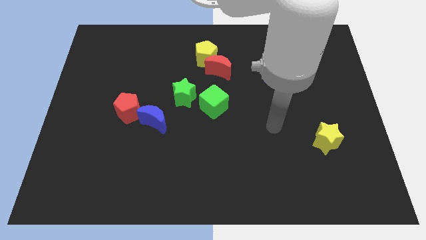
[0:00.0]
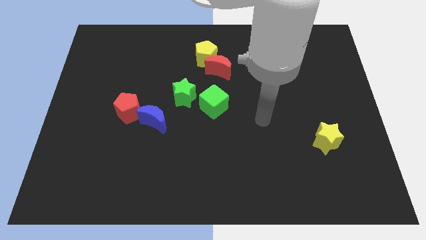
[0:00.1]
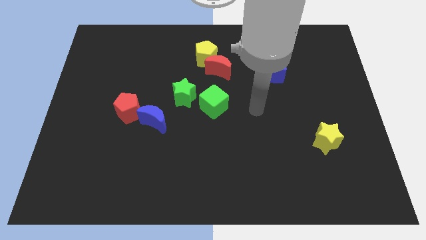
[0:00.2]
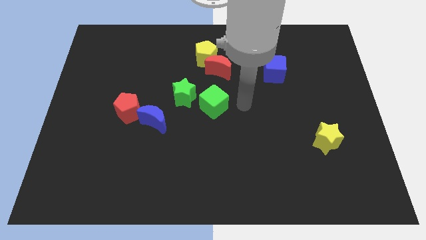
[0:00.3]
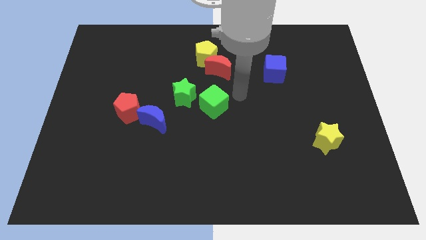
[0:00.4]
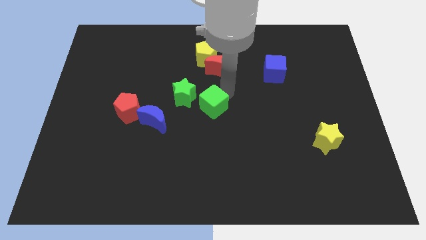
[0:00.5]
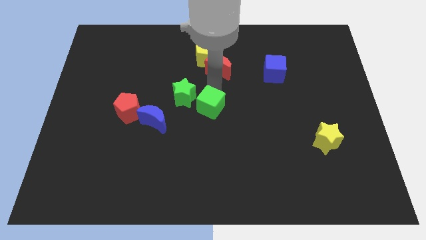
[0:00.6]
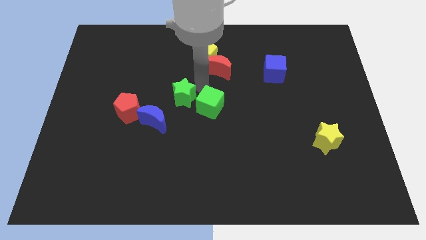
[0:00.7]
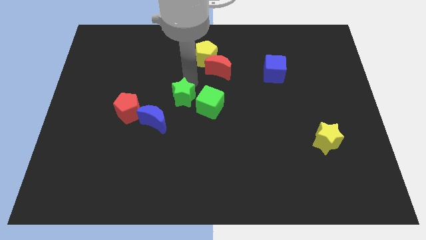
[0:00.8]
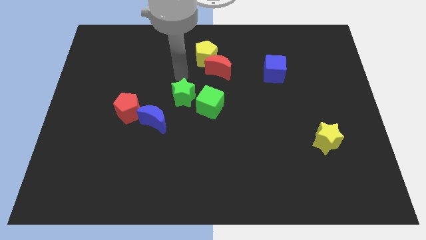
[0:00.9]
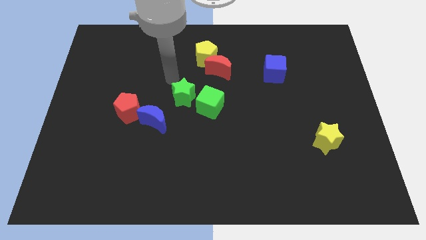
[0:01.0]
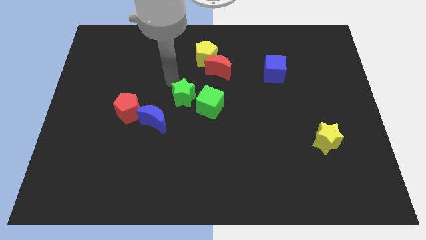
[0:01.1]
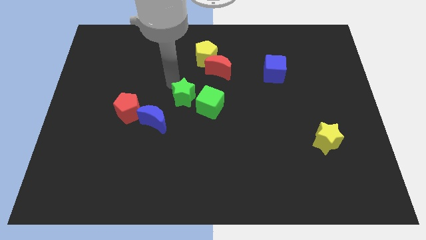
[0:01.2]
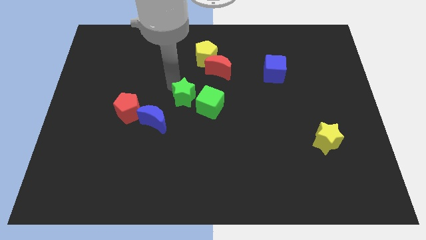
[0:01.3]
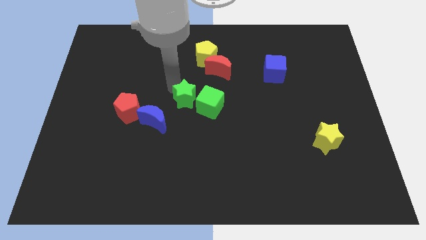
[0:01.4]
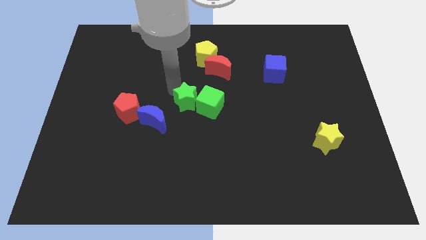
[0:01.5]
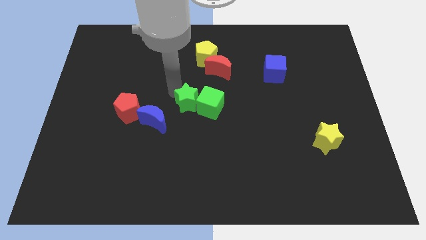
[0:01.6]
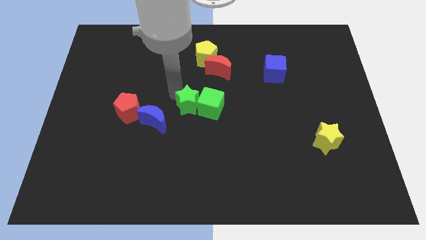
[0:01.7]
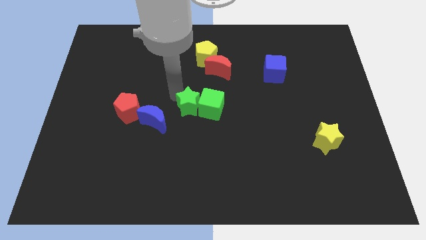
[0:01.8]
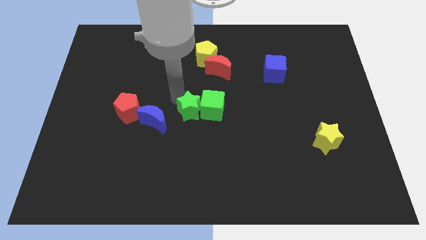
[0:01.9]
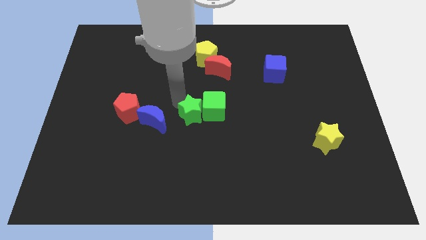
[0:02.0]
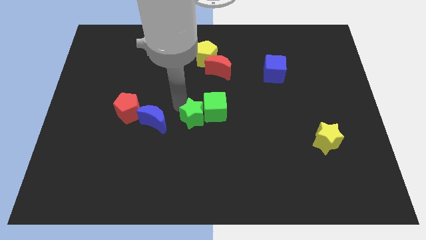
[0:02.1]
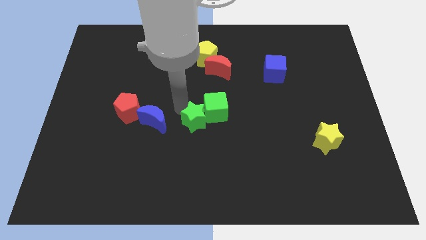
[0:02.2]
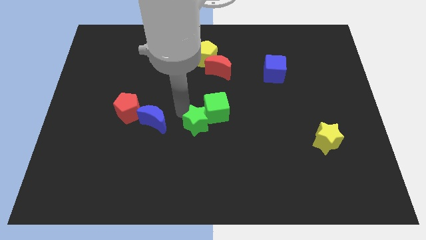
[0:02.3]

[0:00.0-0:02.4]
move the green star slightly down and then right

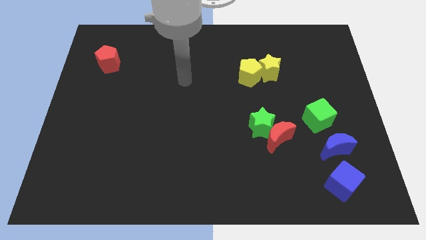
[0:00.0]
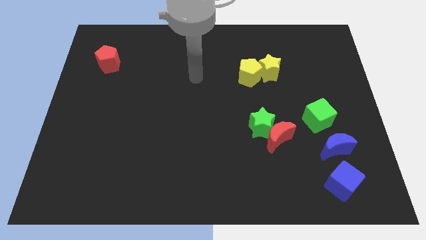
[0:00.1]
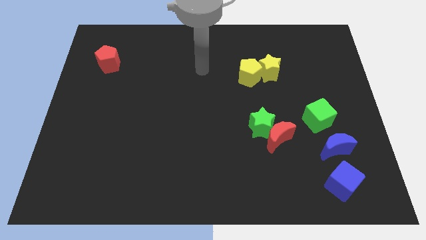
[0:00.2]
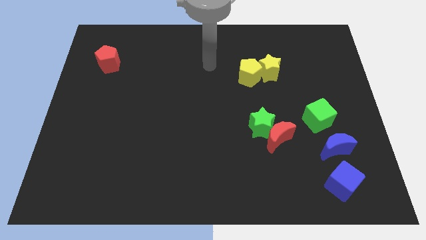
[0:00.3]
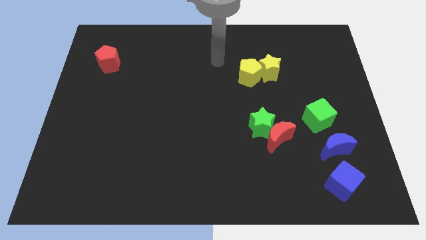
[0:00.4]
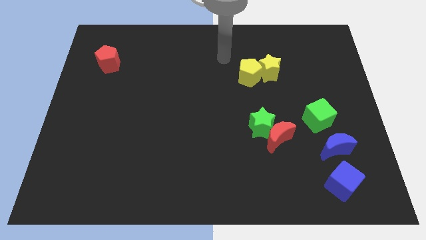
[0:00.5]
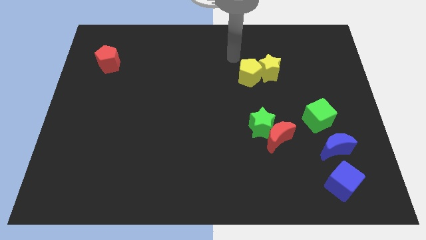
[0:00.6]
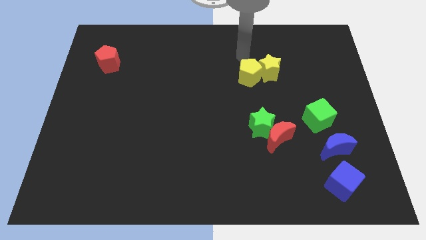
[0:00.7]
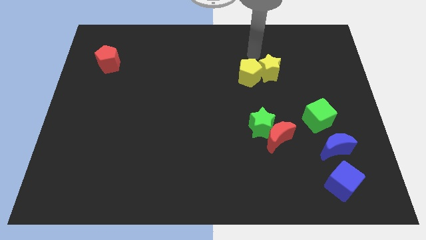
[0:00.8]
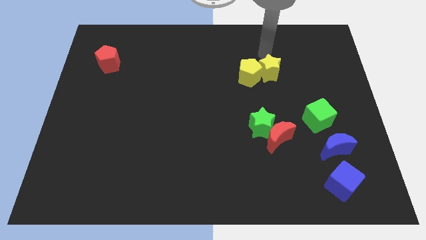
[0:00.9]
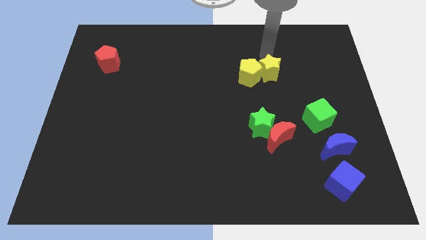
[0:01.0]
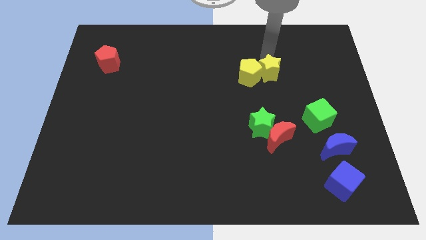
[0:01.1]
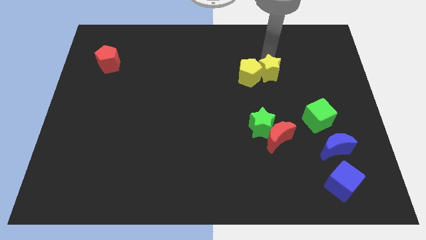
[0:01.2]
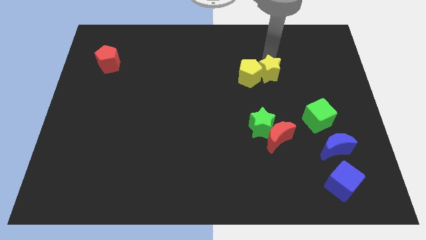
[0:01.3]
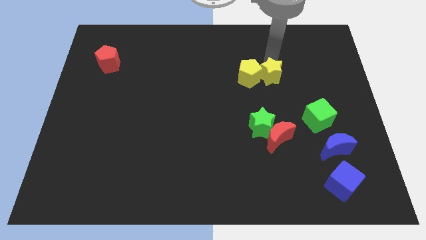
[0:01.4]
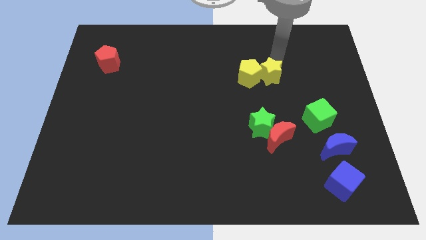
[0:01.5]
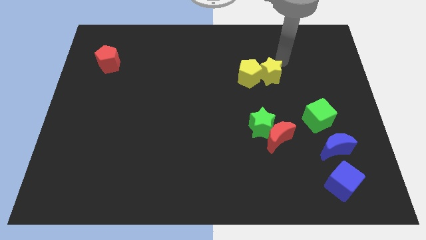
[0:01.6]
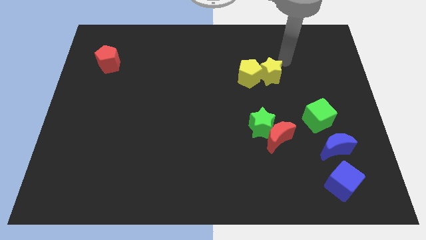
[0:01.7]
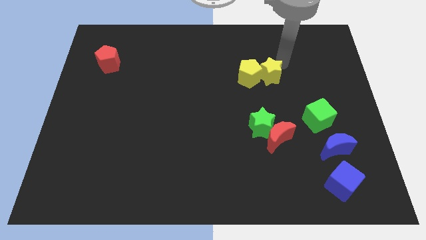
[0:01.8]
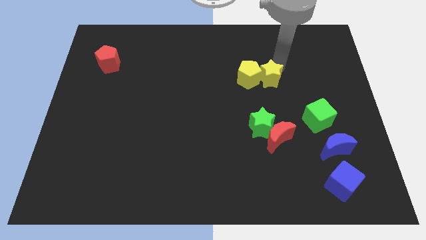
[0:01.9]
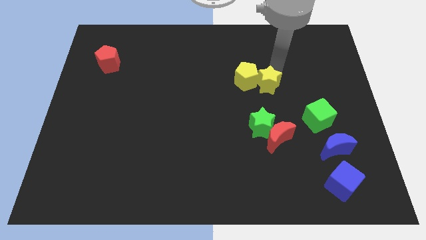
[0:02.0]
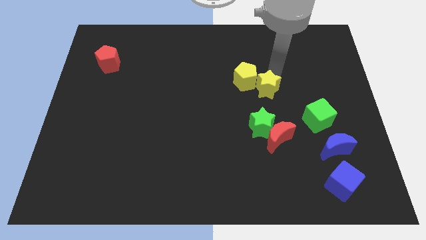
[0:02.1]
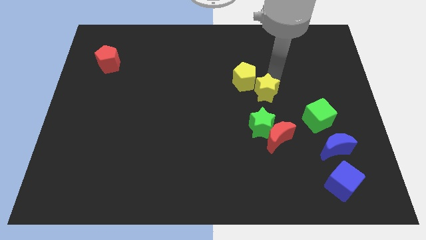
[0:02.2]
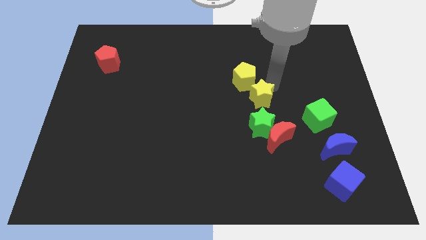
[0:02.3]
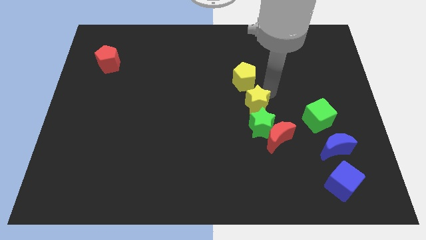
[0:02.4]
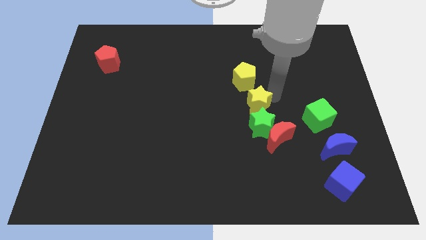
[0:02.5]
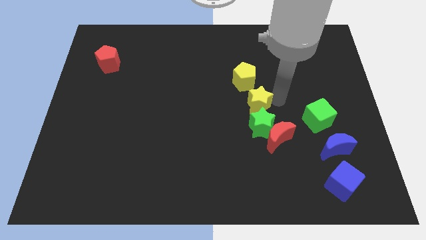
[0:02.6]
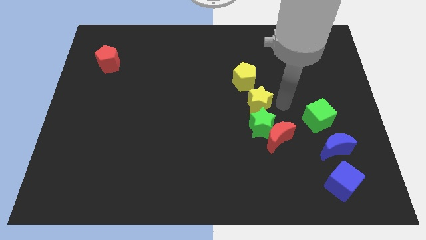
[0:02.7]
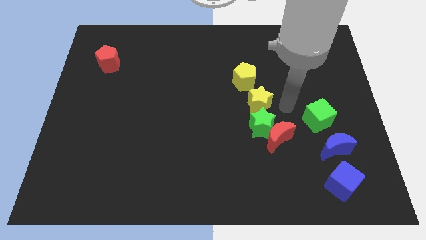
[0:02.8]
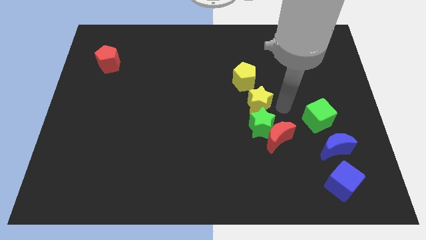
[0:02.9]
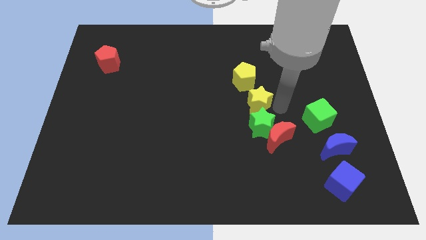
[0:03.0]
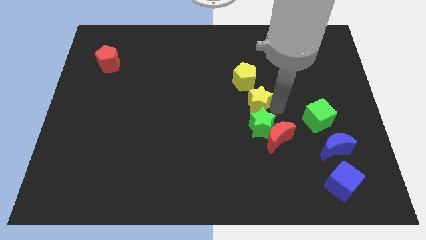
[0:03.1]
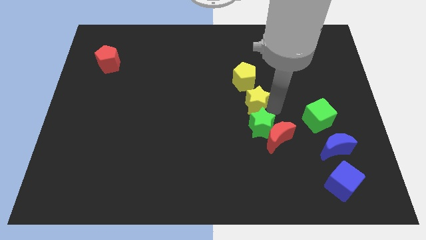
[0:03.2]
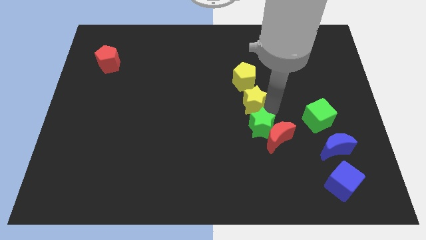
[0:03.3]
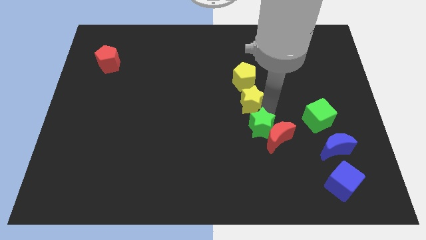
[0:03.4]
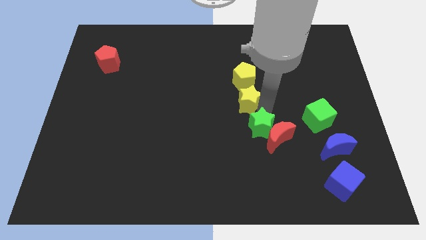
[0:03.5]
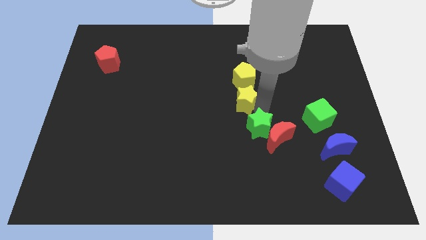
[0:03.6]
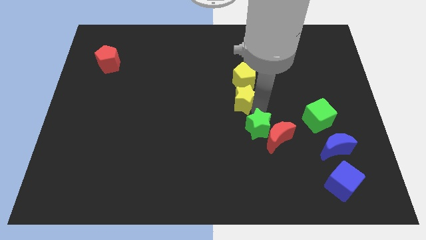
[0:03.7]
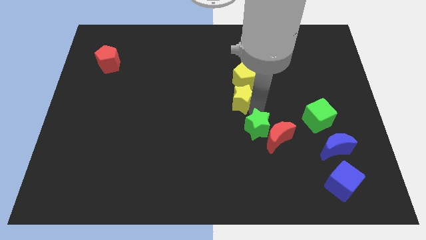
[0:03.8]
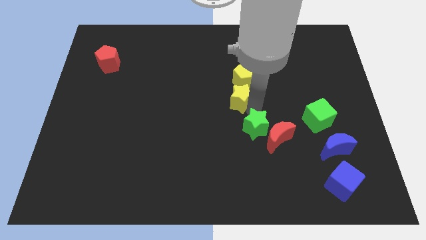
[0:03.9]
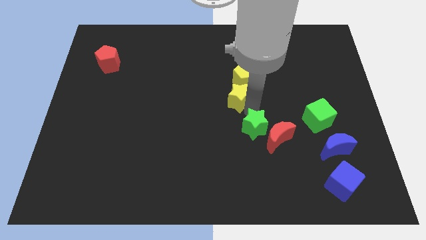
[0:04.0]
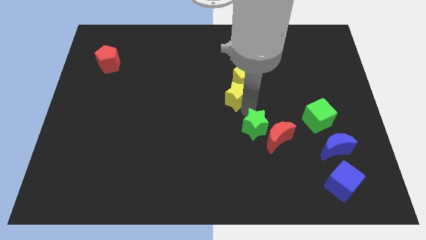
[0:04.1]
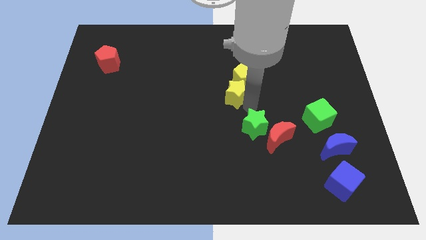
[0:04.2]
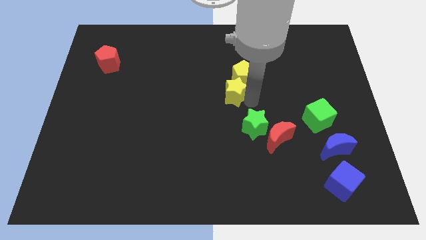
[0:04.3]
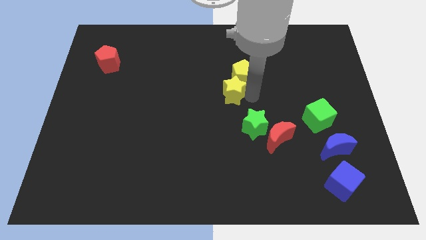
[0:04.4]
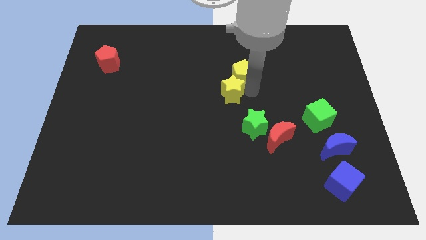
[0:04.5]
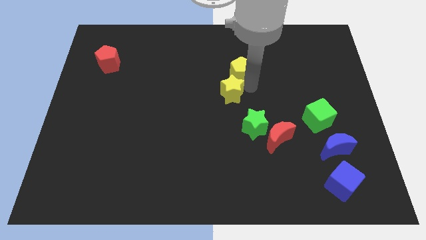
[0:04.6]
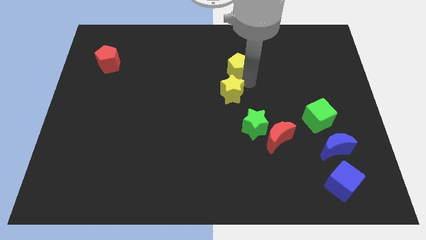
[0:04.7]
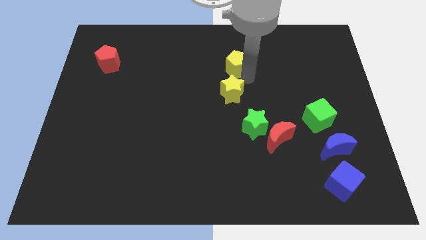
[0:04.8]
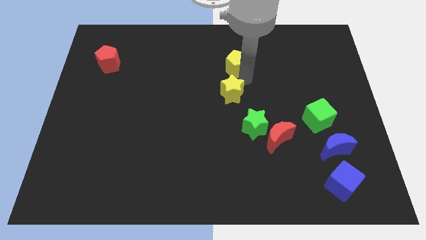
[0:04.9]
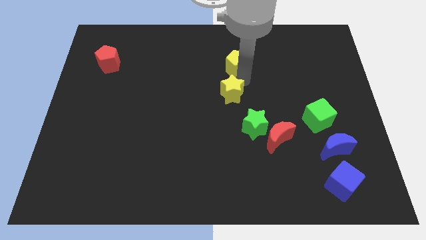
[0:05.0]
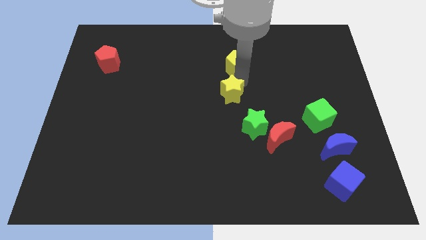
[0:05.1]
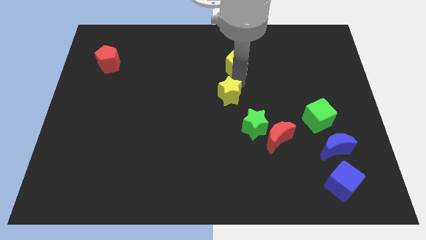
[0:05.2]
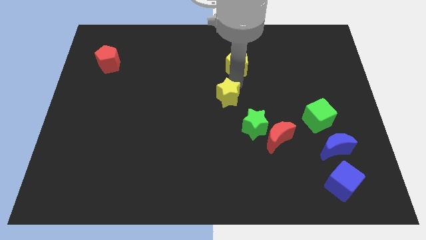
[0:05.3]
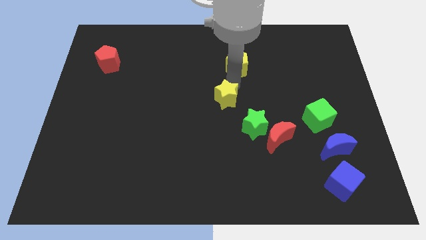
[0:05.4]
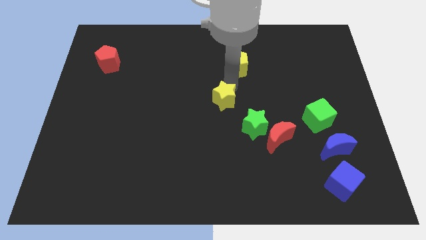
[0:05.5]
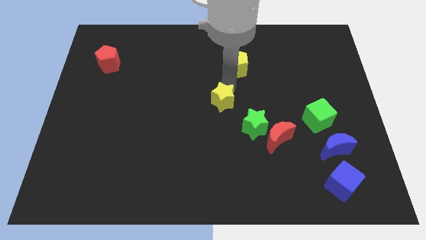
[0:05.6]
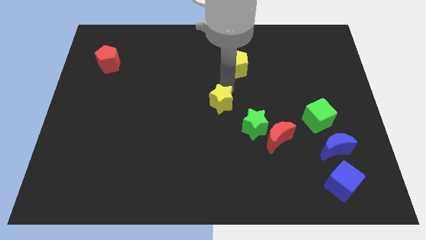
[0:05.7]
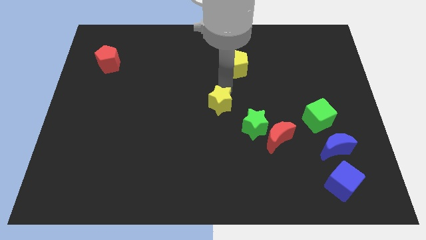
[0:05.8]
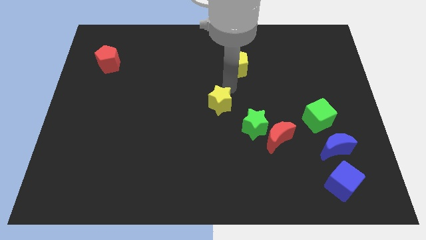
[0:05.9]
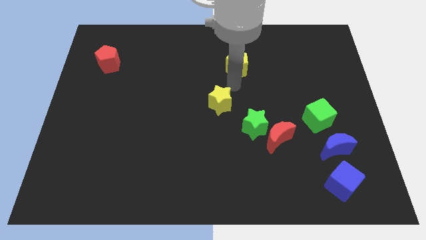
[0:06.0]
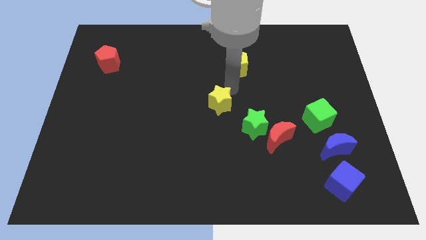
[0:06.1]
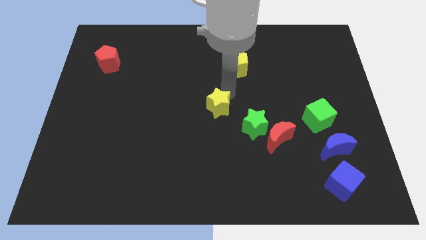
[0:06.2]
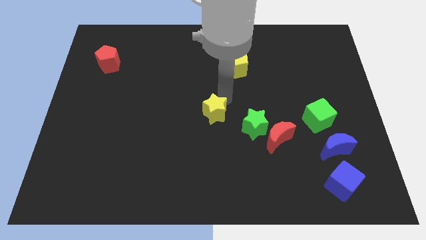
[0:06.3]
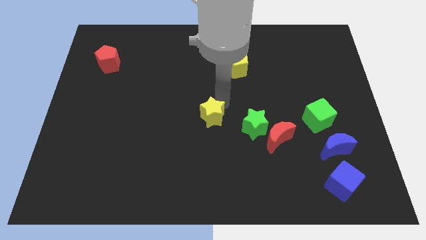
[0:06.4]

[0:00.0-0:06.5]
slide the yellow star downwards and to the left diagonally
